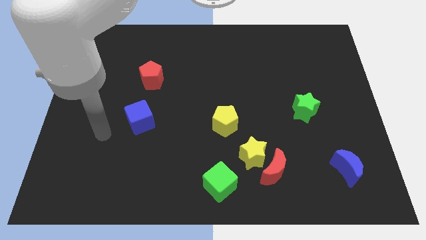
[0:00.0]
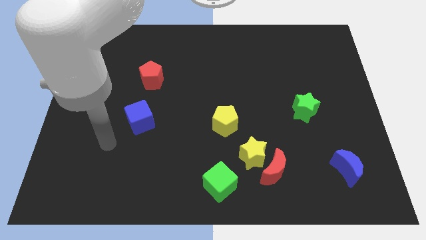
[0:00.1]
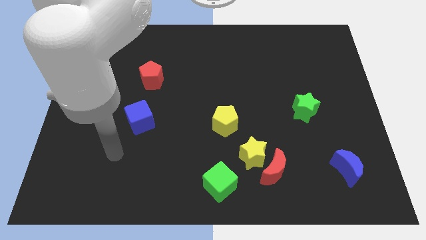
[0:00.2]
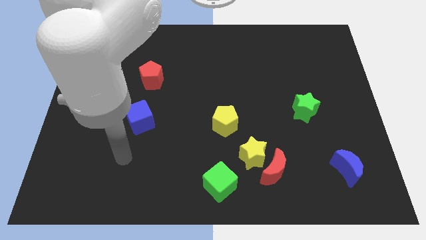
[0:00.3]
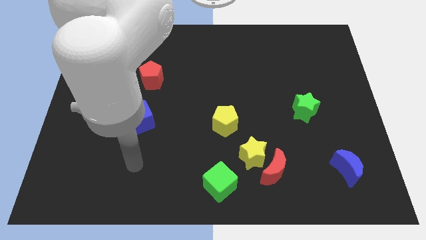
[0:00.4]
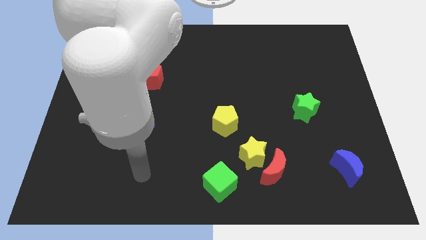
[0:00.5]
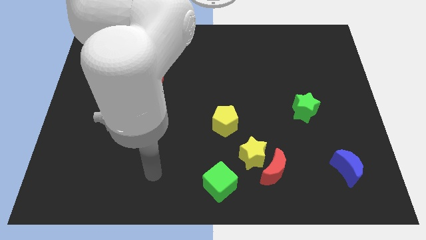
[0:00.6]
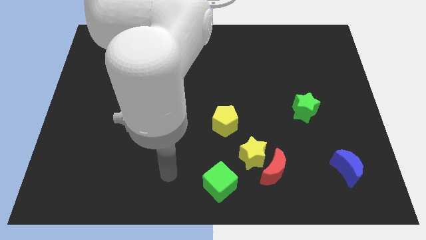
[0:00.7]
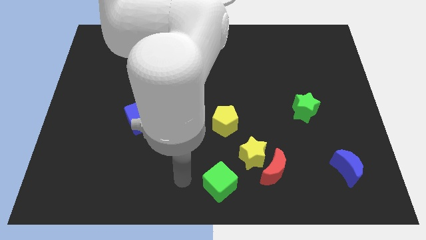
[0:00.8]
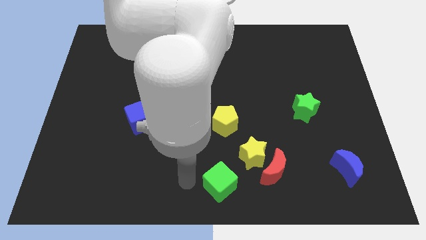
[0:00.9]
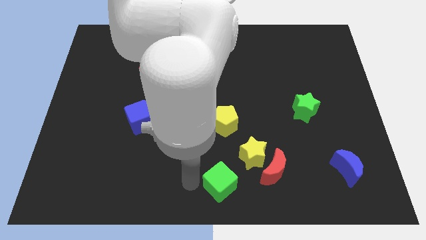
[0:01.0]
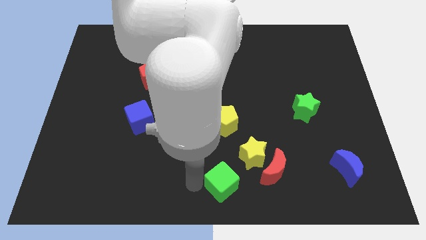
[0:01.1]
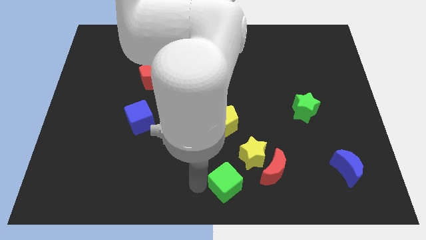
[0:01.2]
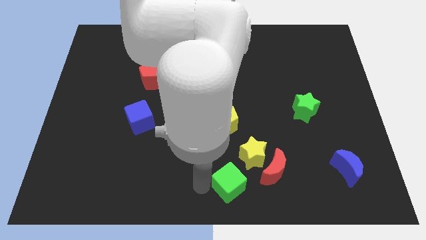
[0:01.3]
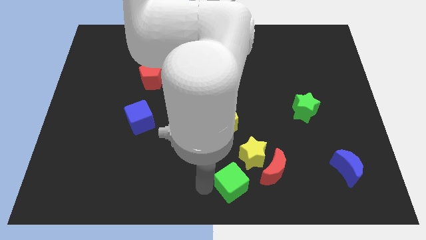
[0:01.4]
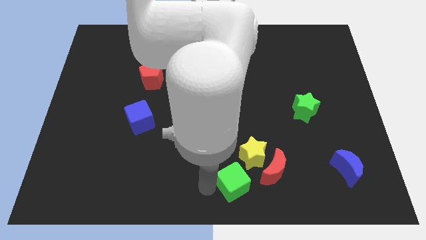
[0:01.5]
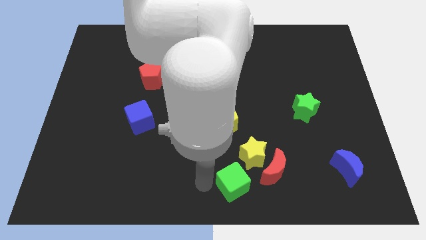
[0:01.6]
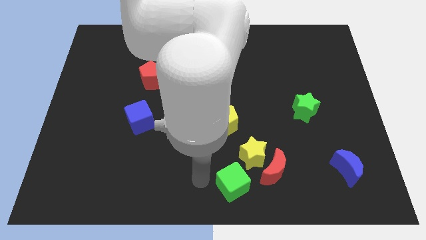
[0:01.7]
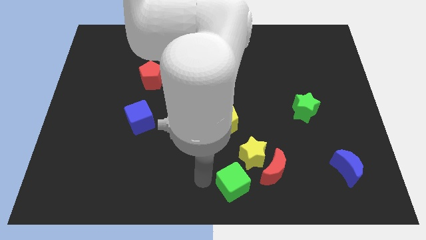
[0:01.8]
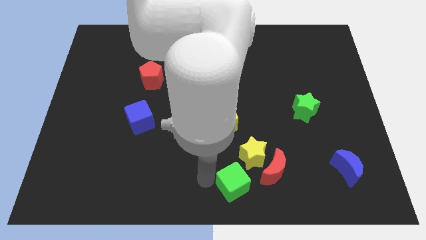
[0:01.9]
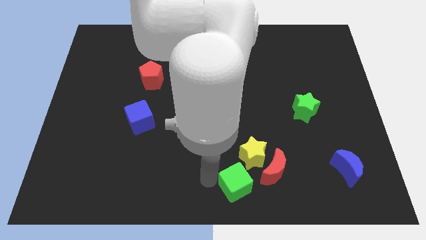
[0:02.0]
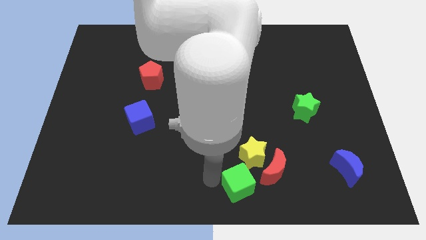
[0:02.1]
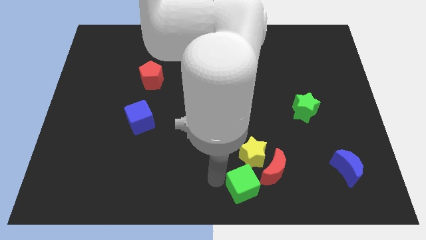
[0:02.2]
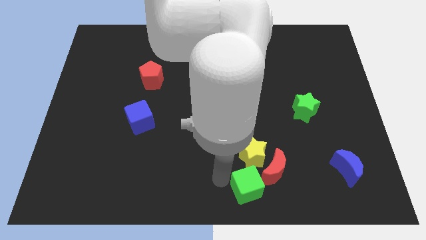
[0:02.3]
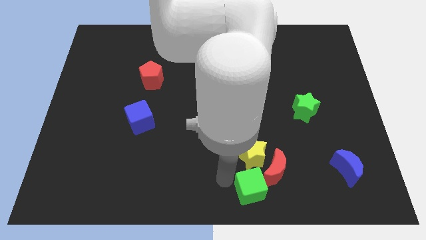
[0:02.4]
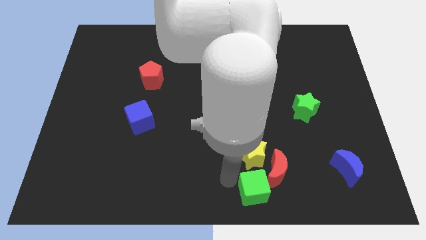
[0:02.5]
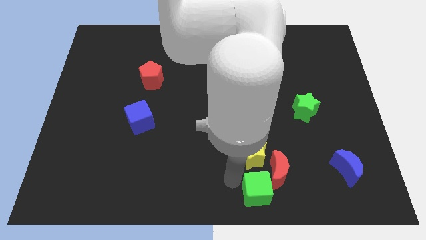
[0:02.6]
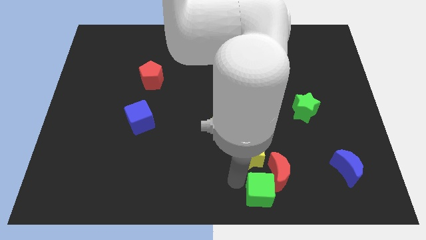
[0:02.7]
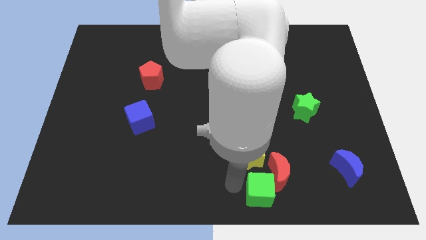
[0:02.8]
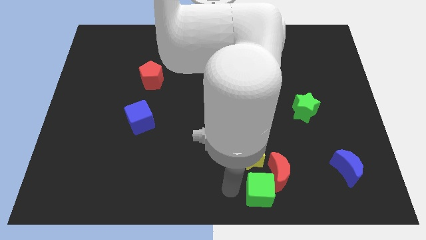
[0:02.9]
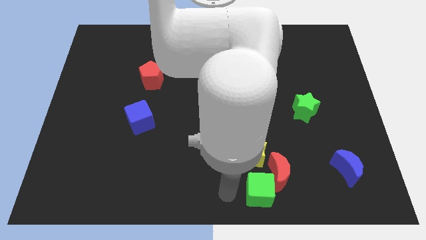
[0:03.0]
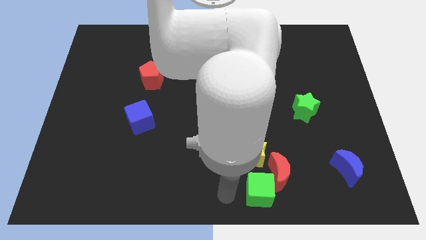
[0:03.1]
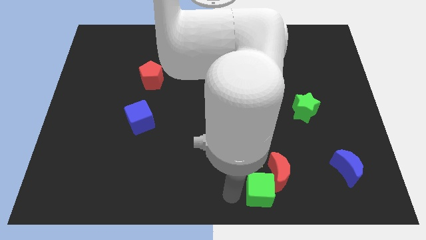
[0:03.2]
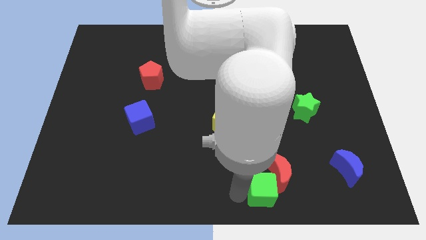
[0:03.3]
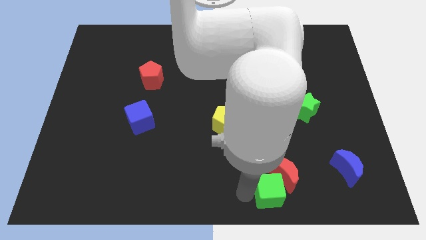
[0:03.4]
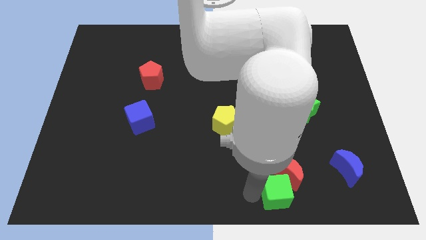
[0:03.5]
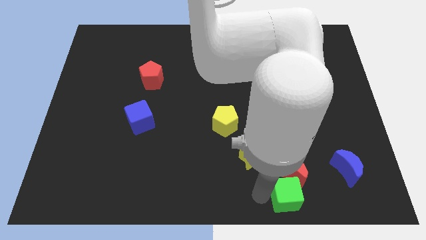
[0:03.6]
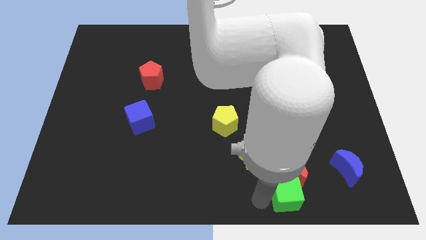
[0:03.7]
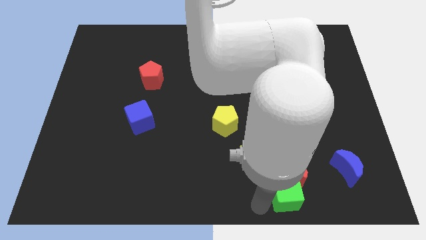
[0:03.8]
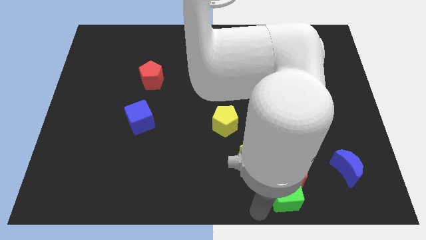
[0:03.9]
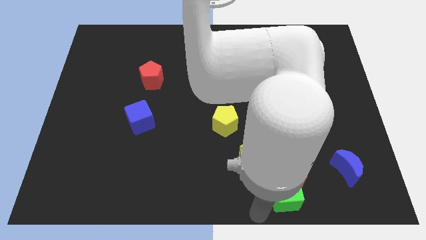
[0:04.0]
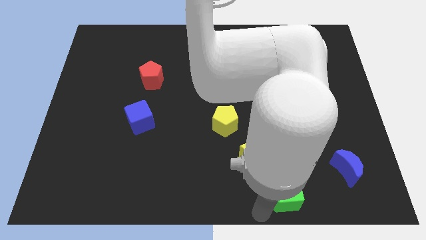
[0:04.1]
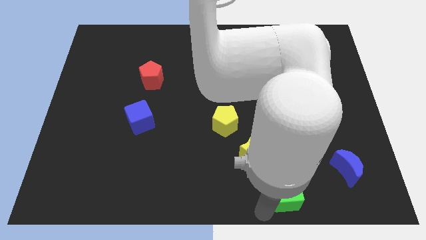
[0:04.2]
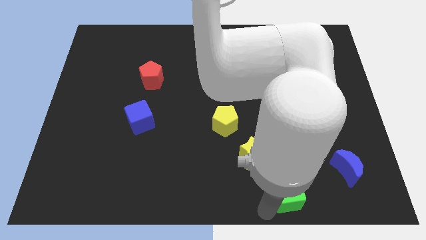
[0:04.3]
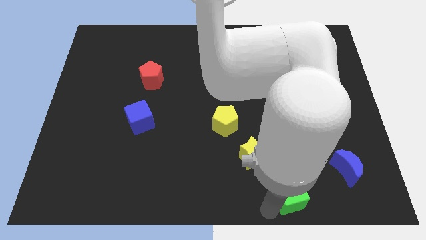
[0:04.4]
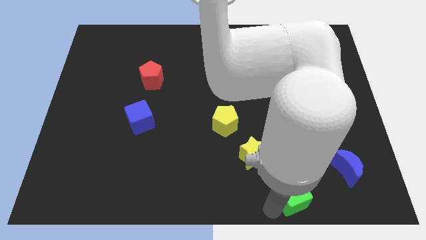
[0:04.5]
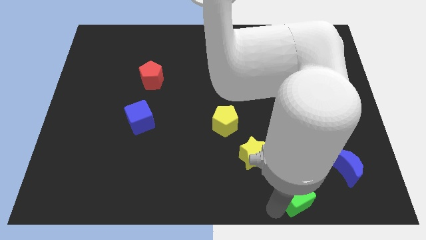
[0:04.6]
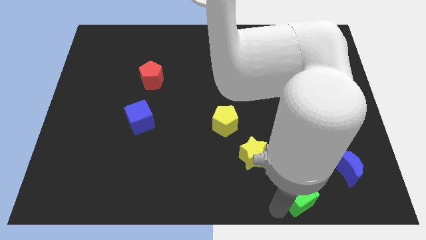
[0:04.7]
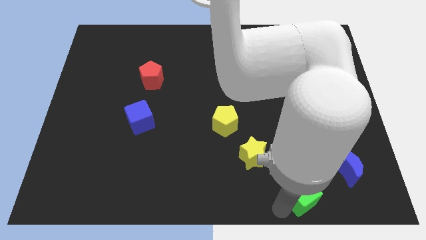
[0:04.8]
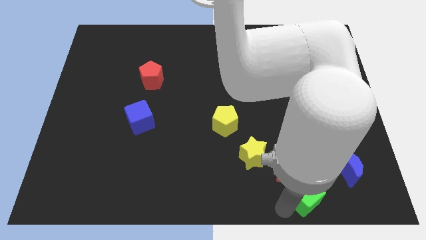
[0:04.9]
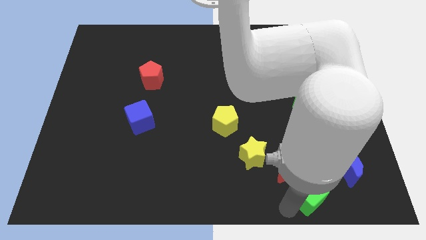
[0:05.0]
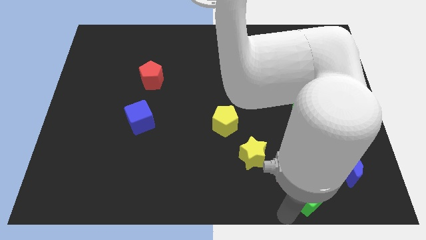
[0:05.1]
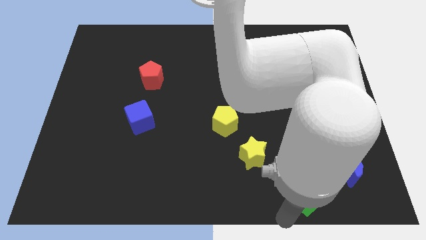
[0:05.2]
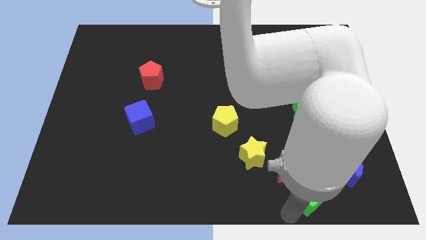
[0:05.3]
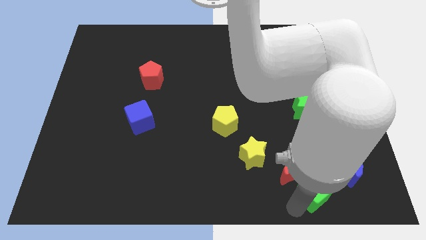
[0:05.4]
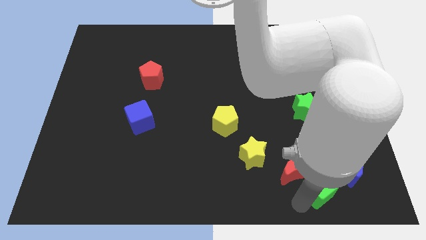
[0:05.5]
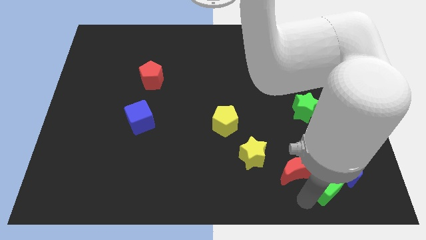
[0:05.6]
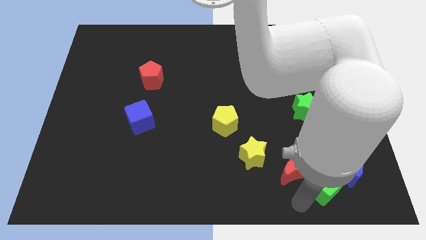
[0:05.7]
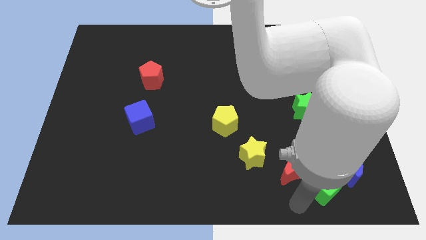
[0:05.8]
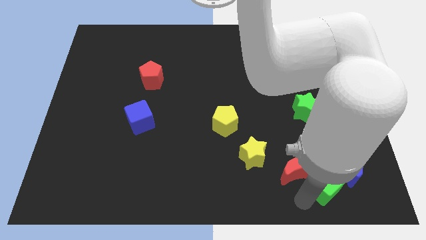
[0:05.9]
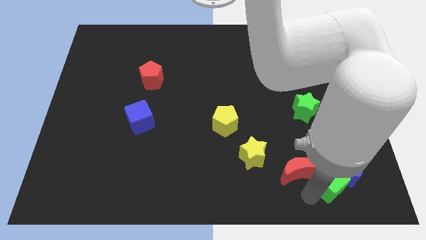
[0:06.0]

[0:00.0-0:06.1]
move the green cube towards the blue moon

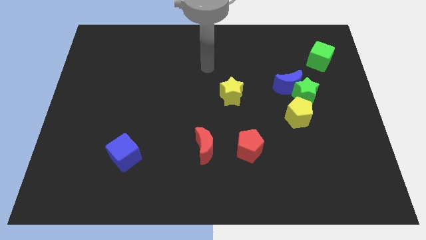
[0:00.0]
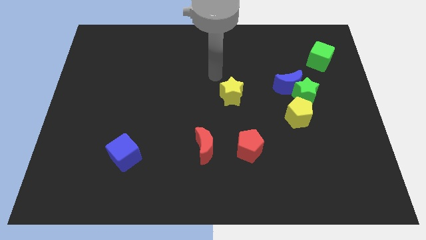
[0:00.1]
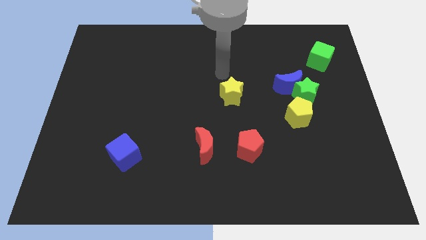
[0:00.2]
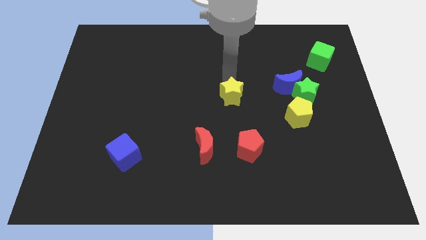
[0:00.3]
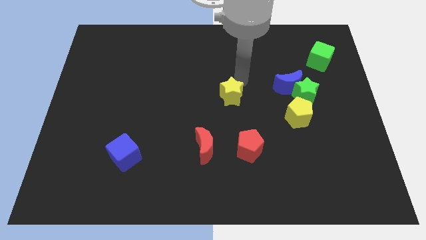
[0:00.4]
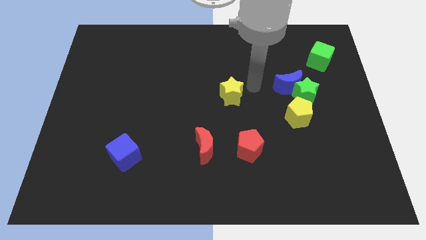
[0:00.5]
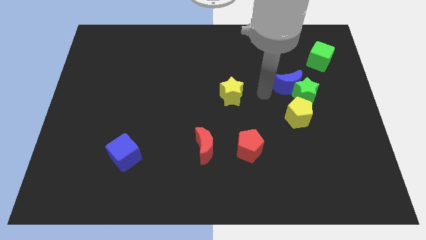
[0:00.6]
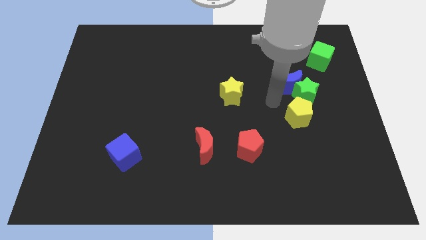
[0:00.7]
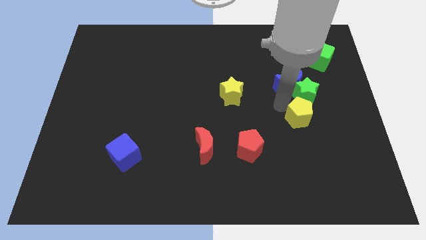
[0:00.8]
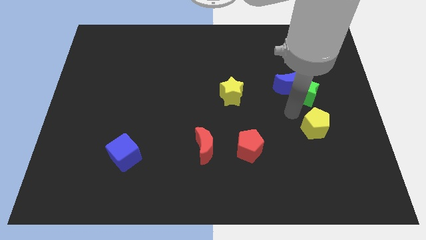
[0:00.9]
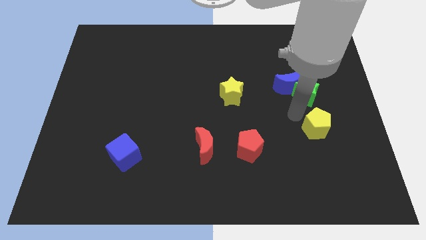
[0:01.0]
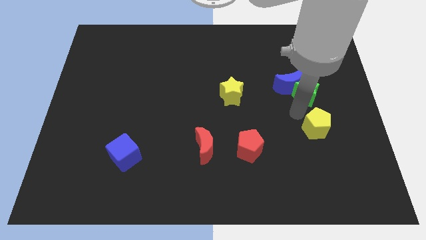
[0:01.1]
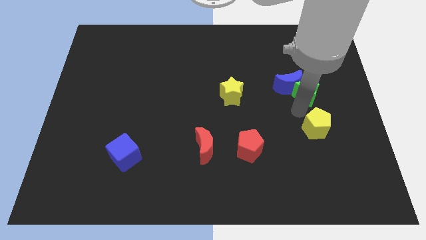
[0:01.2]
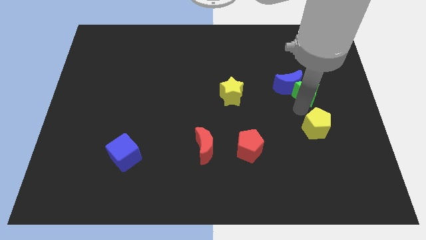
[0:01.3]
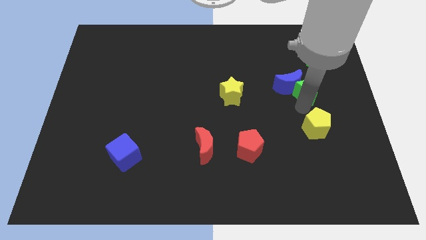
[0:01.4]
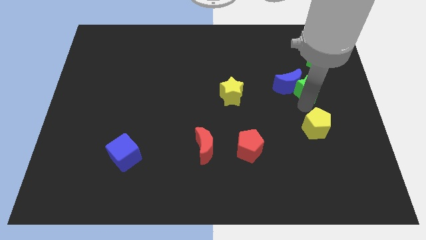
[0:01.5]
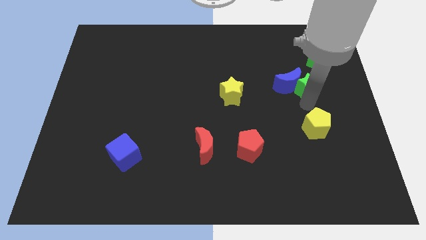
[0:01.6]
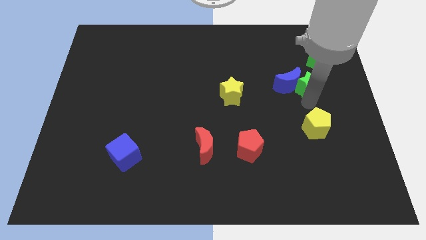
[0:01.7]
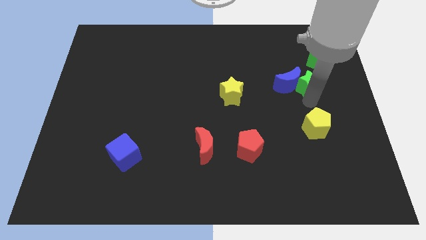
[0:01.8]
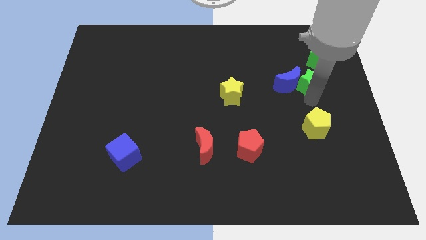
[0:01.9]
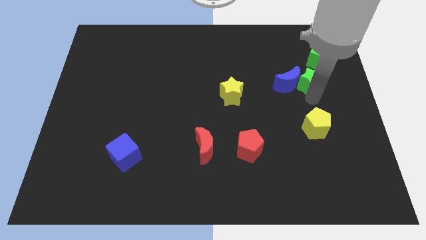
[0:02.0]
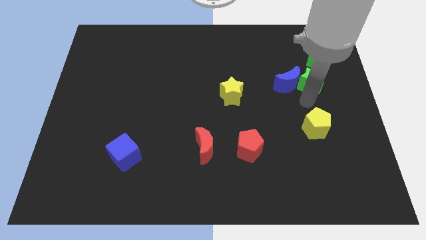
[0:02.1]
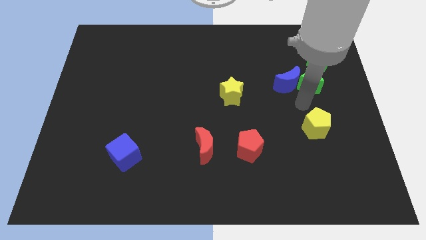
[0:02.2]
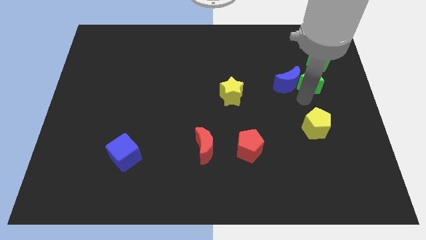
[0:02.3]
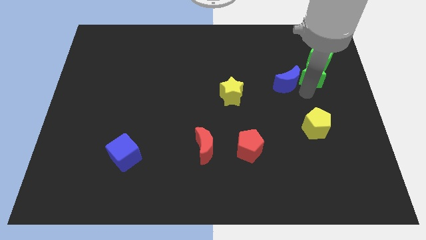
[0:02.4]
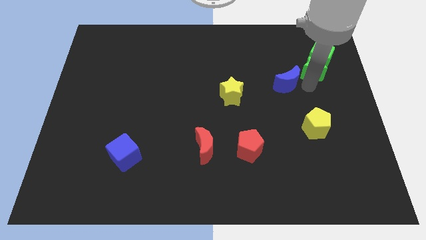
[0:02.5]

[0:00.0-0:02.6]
put the green star to the green cube
